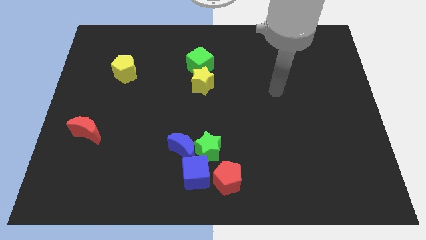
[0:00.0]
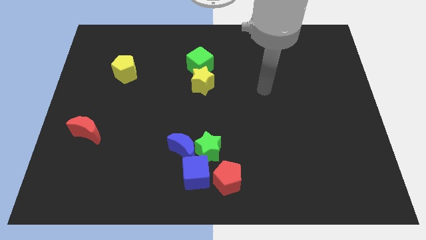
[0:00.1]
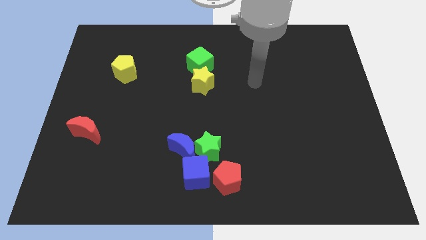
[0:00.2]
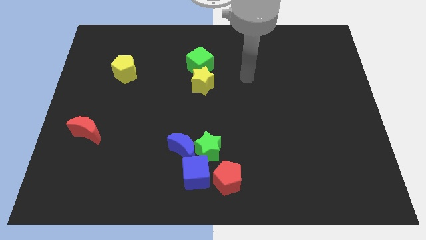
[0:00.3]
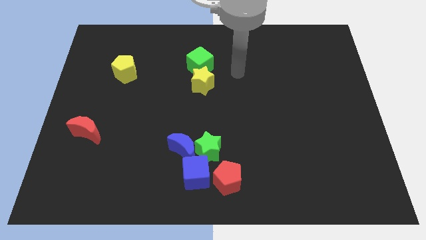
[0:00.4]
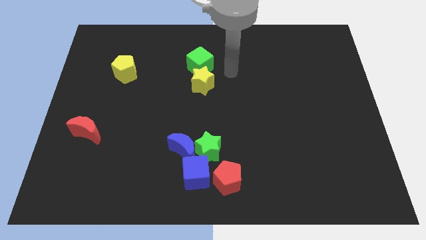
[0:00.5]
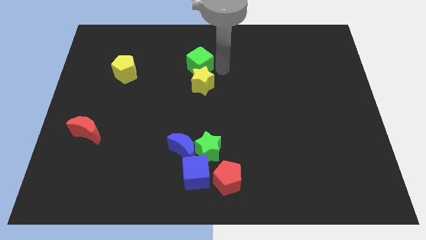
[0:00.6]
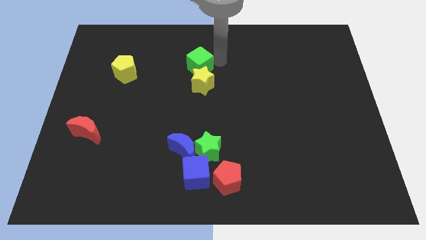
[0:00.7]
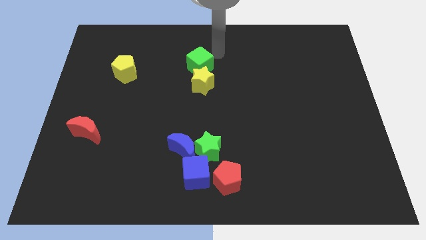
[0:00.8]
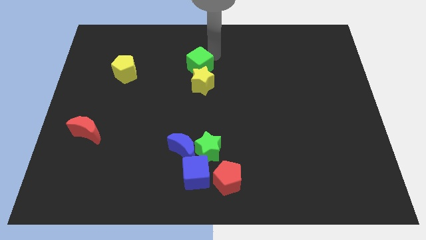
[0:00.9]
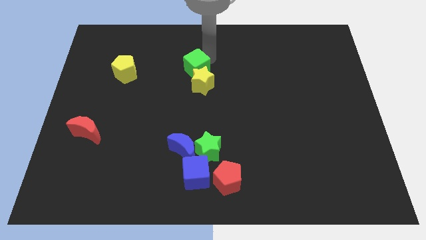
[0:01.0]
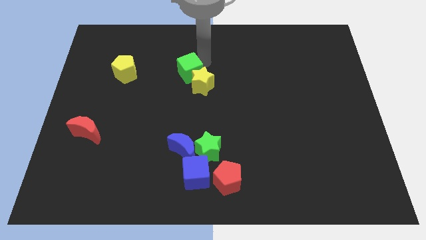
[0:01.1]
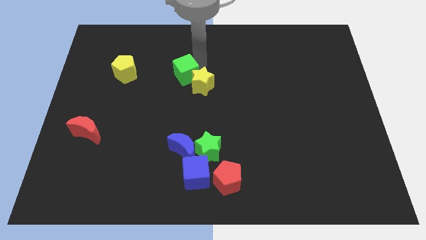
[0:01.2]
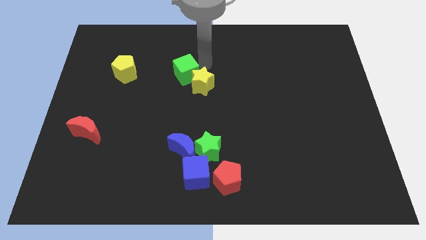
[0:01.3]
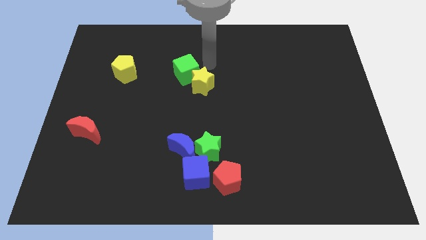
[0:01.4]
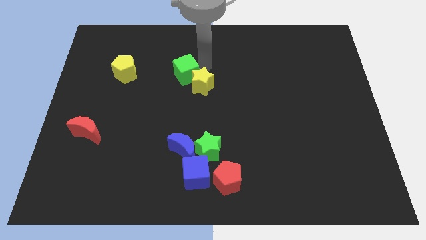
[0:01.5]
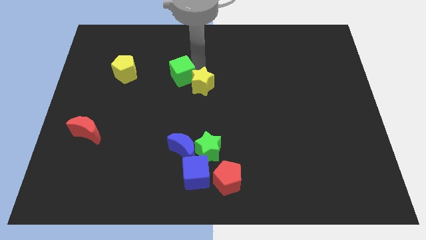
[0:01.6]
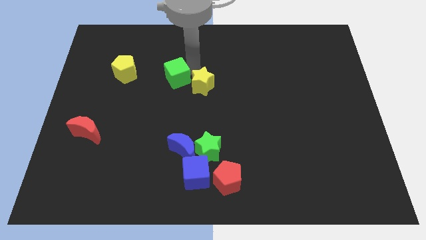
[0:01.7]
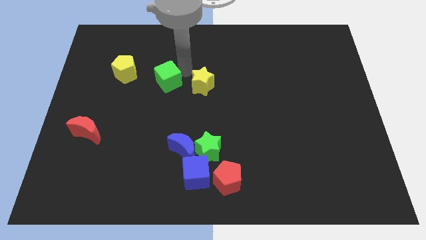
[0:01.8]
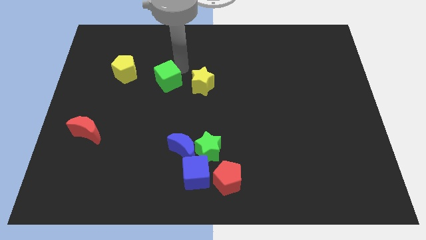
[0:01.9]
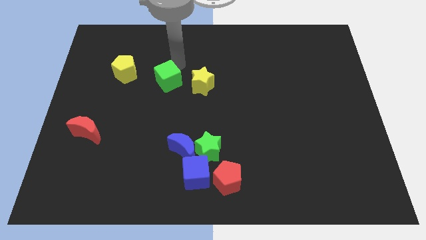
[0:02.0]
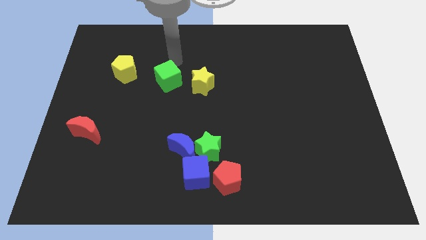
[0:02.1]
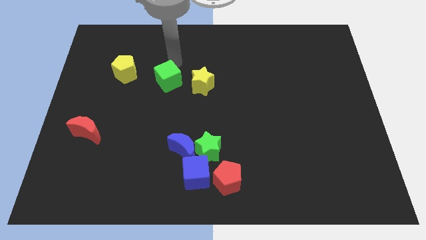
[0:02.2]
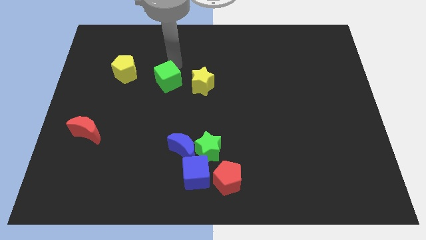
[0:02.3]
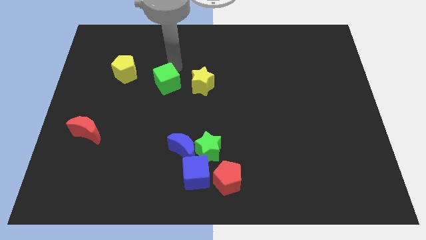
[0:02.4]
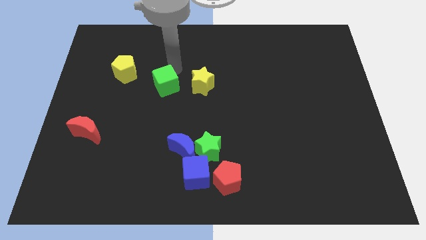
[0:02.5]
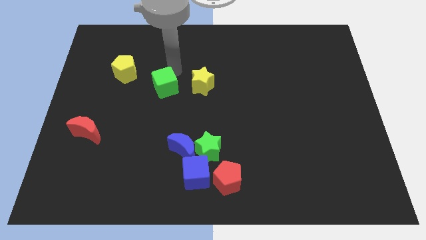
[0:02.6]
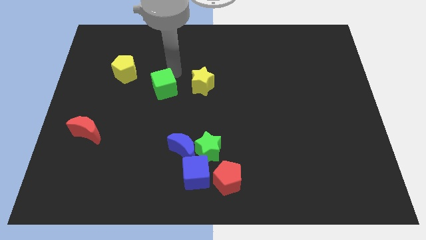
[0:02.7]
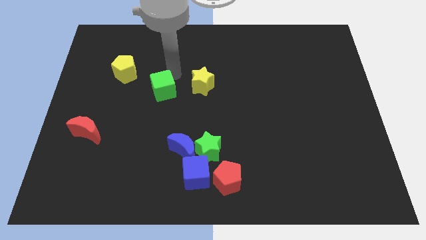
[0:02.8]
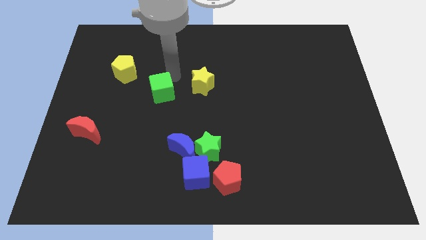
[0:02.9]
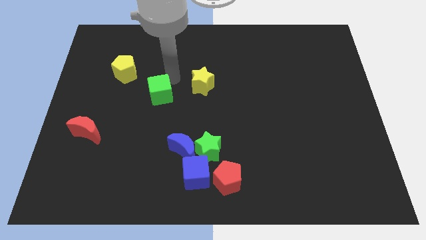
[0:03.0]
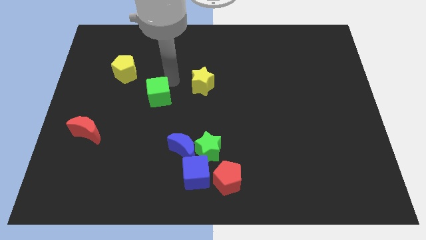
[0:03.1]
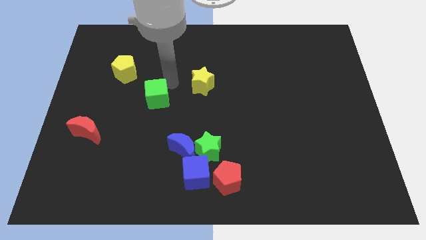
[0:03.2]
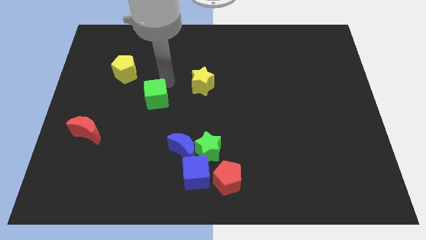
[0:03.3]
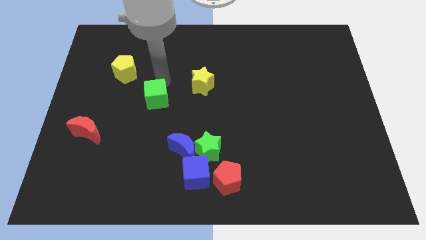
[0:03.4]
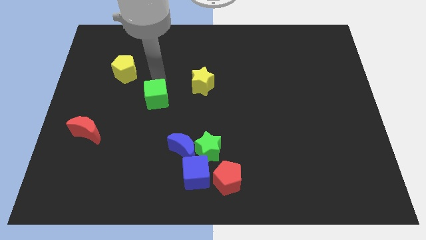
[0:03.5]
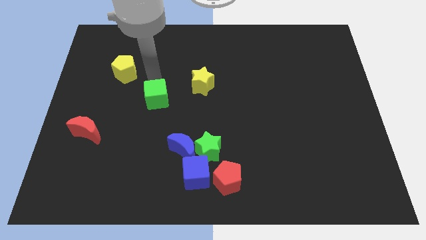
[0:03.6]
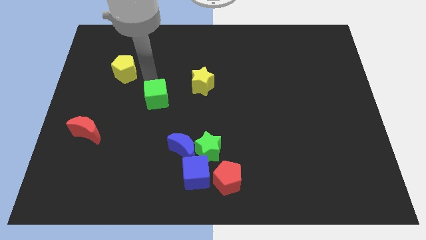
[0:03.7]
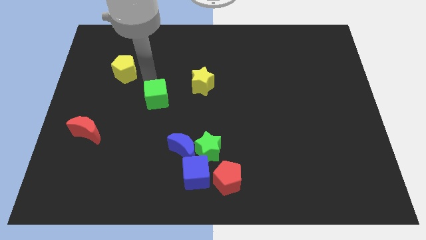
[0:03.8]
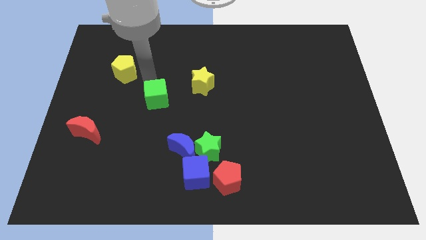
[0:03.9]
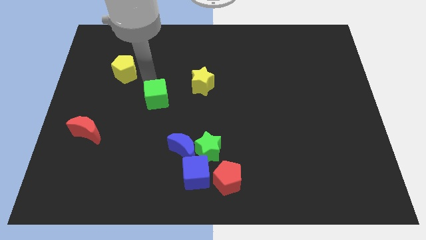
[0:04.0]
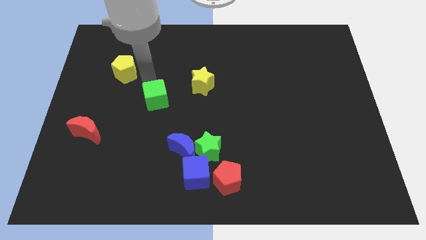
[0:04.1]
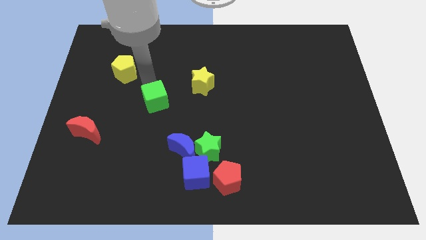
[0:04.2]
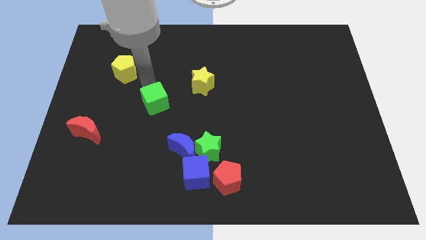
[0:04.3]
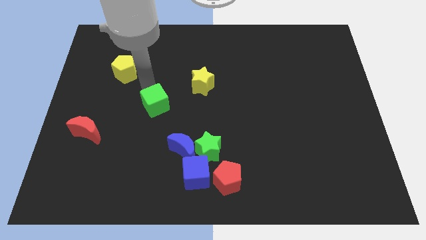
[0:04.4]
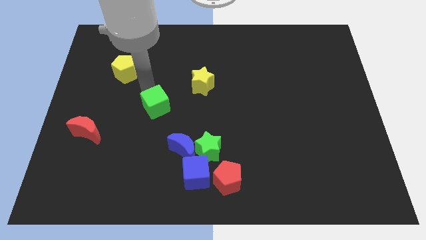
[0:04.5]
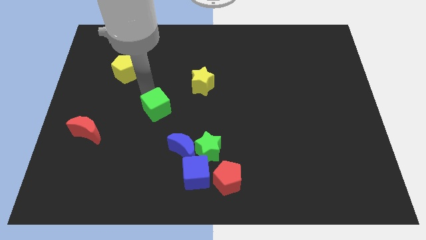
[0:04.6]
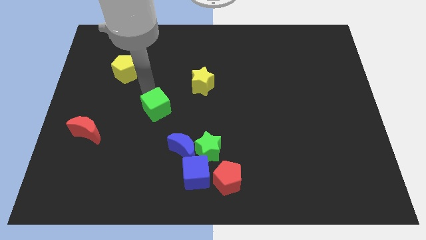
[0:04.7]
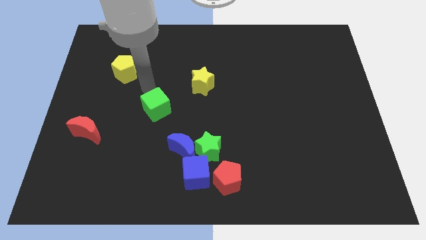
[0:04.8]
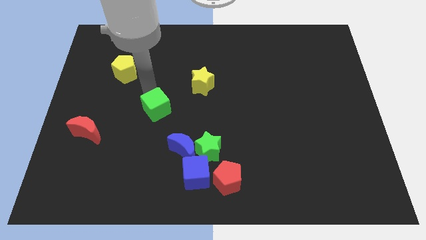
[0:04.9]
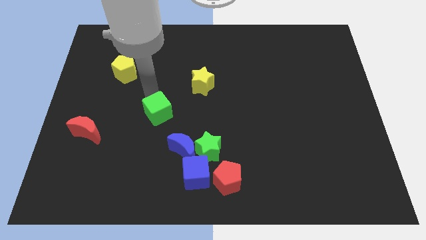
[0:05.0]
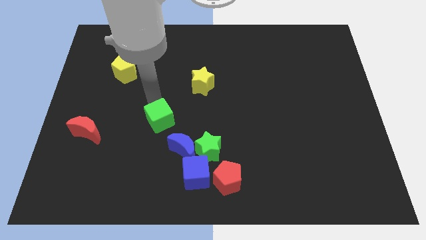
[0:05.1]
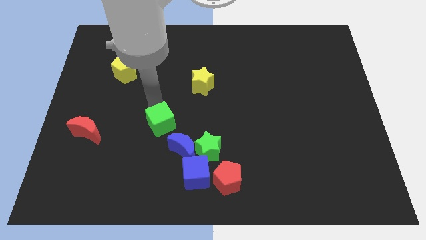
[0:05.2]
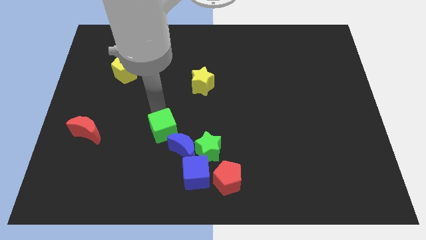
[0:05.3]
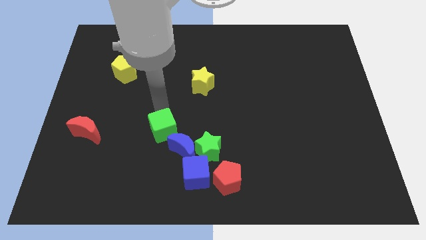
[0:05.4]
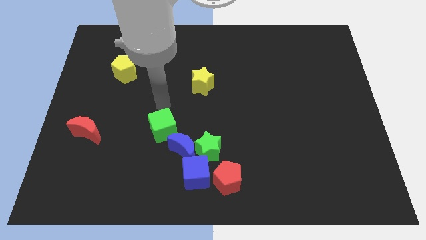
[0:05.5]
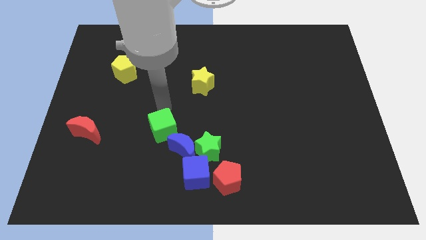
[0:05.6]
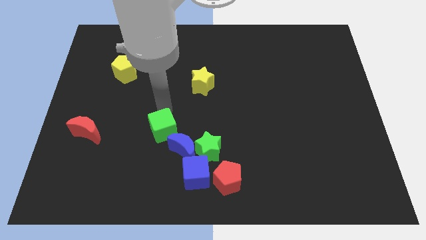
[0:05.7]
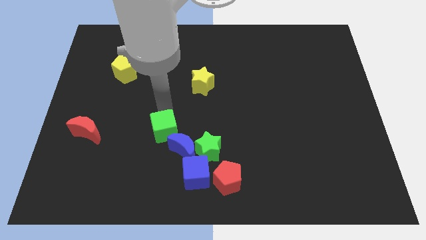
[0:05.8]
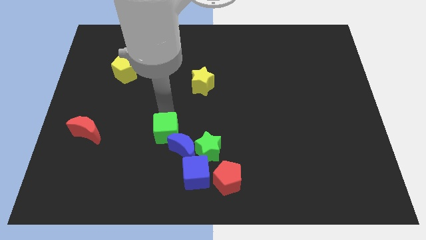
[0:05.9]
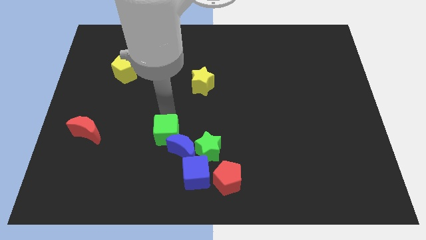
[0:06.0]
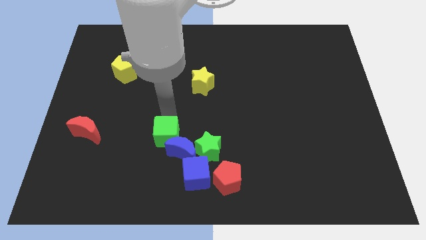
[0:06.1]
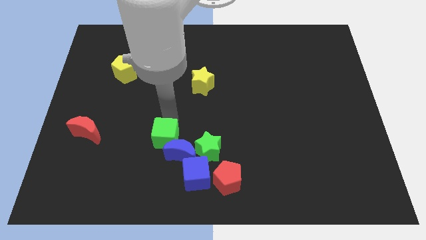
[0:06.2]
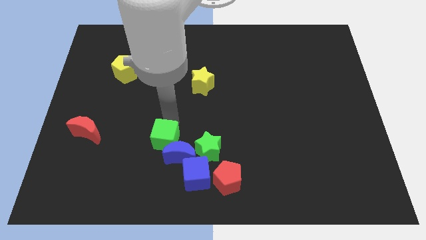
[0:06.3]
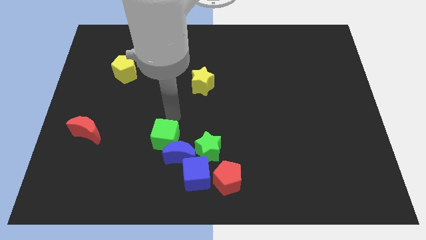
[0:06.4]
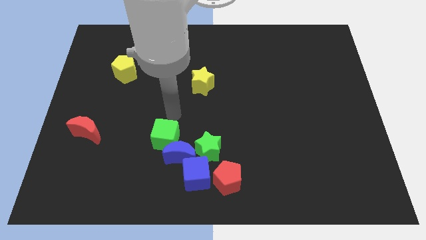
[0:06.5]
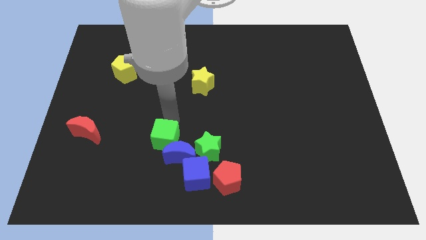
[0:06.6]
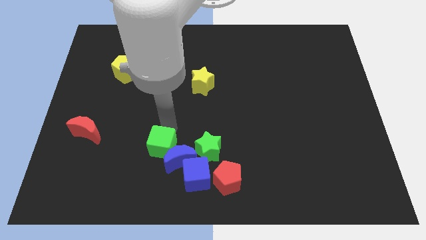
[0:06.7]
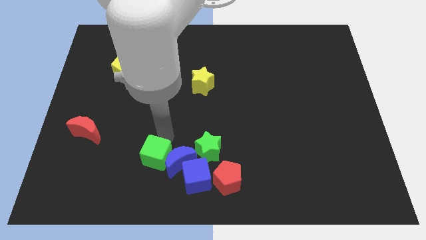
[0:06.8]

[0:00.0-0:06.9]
put the green cube to the bottom left side of the blue moon

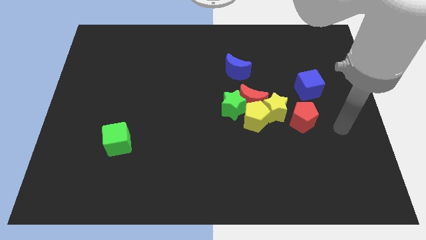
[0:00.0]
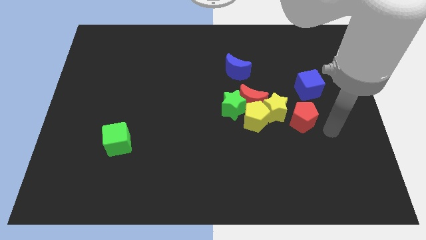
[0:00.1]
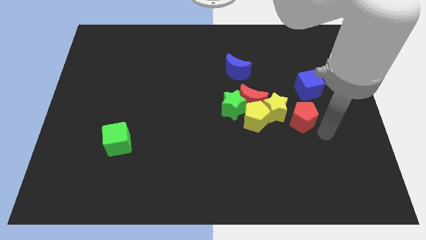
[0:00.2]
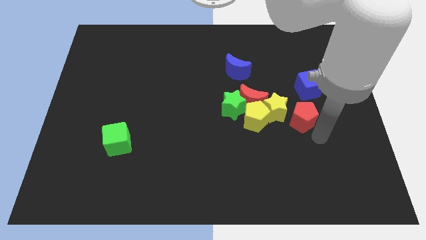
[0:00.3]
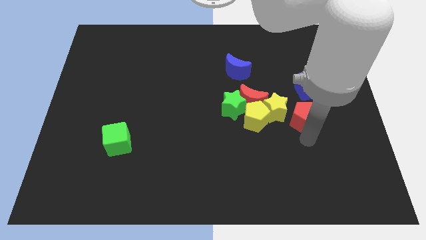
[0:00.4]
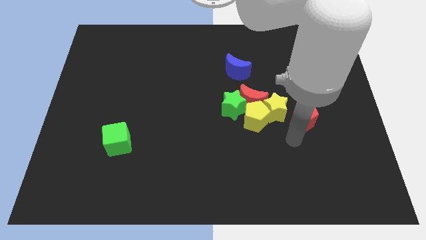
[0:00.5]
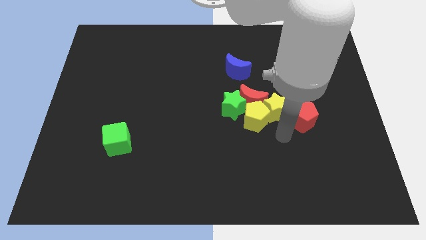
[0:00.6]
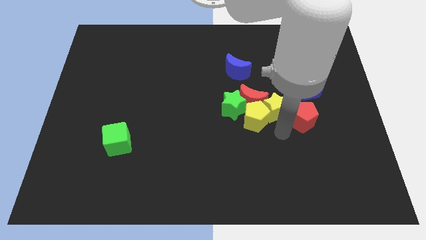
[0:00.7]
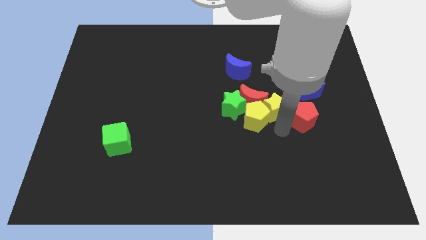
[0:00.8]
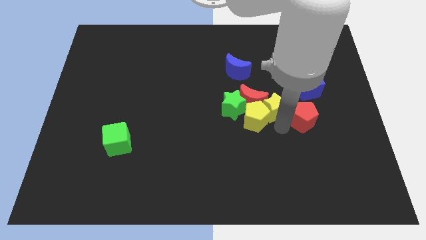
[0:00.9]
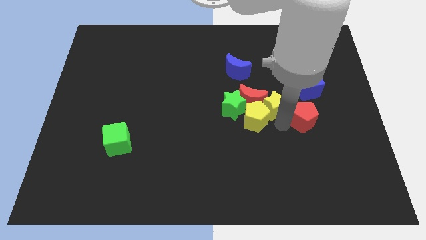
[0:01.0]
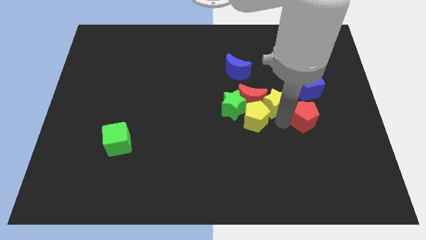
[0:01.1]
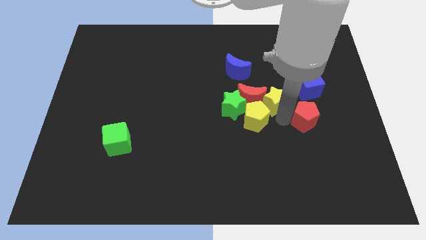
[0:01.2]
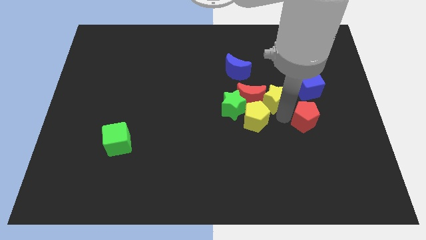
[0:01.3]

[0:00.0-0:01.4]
slide the yellow star to the left of the blue cube
